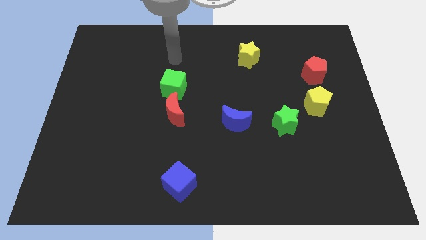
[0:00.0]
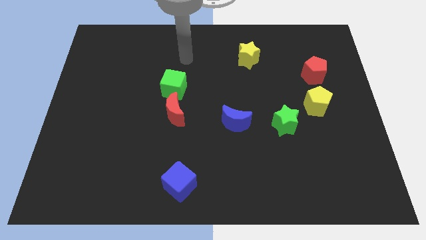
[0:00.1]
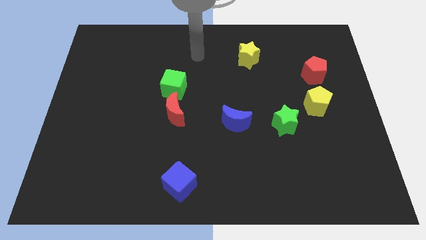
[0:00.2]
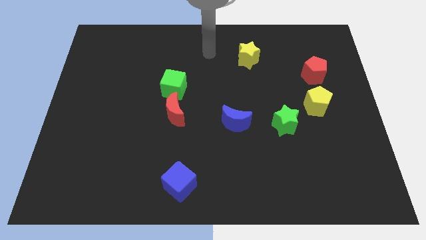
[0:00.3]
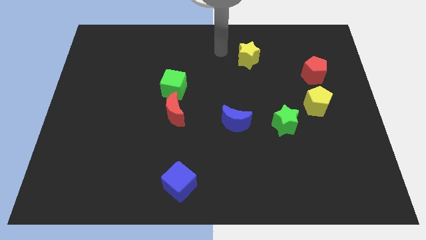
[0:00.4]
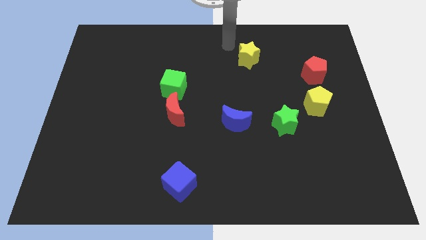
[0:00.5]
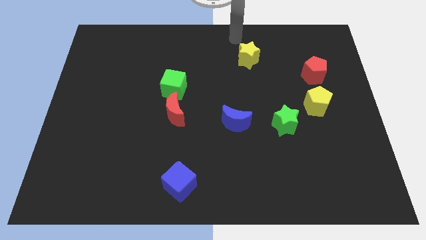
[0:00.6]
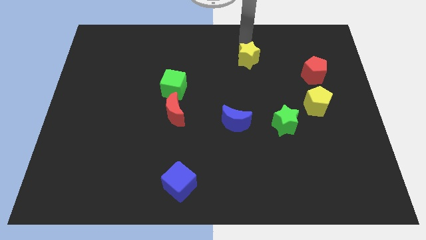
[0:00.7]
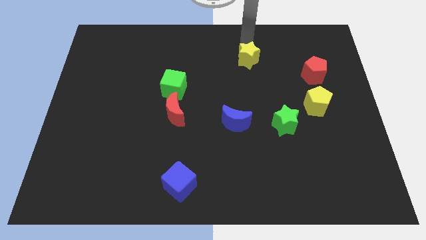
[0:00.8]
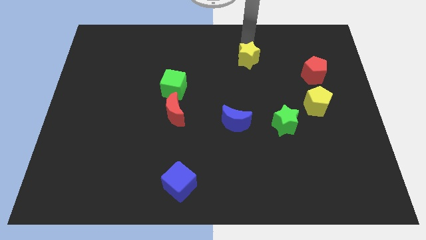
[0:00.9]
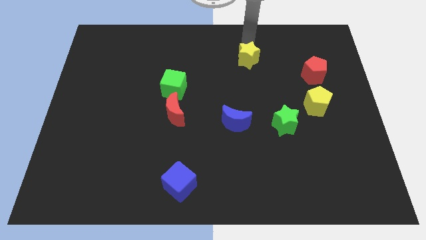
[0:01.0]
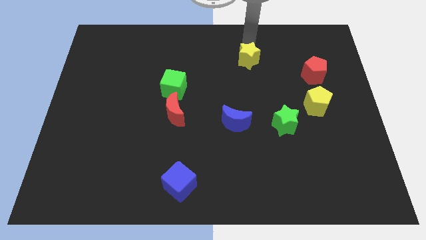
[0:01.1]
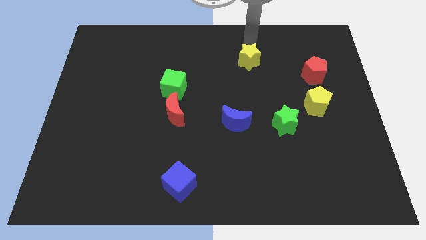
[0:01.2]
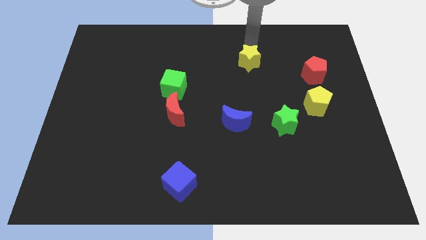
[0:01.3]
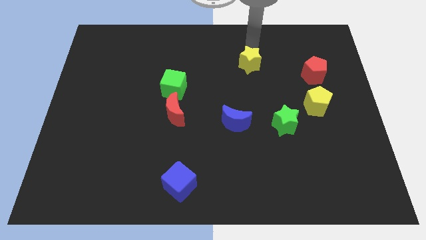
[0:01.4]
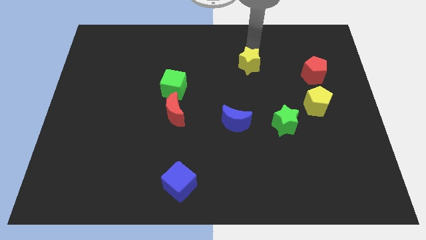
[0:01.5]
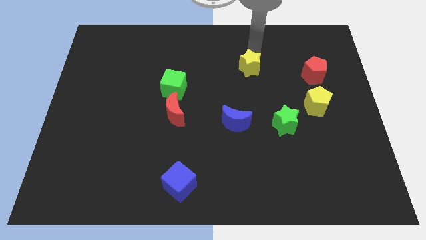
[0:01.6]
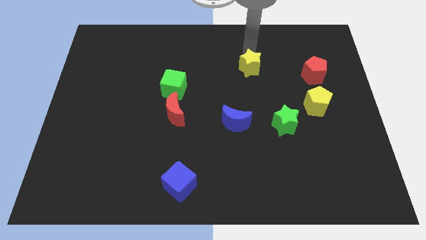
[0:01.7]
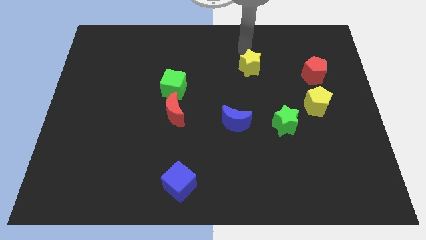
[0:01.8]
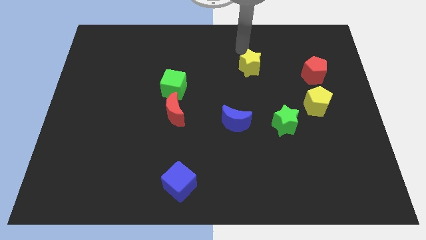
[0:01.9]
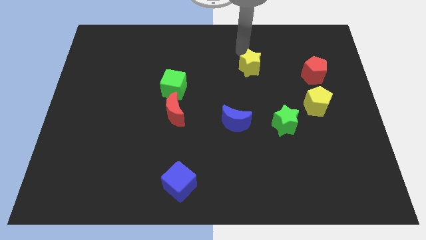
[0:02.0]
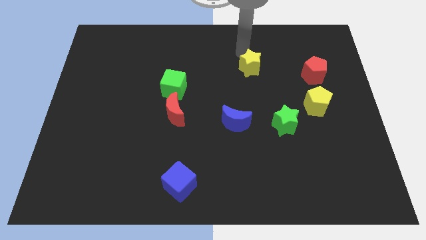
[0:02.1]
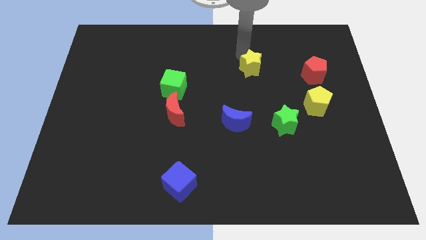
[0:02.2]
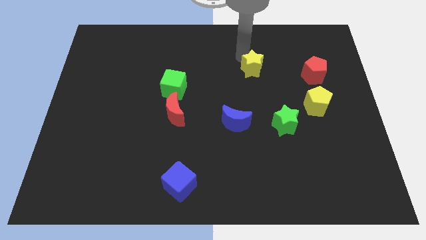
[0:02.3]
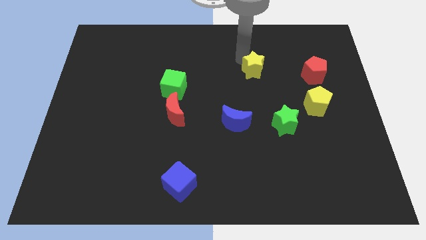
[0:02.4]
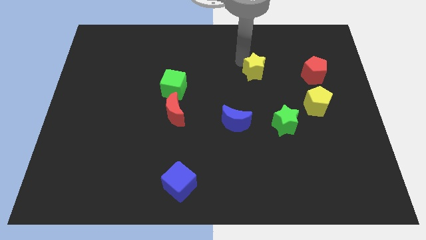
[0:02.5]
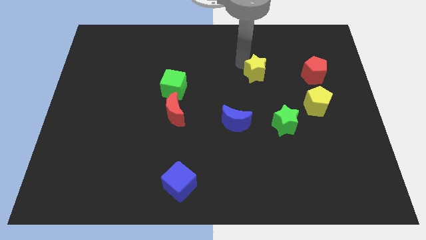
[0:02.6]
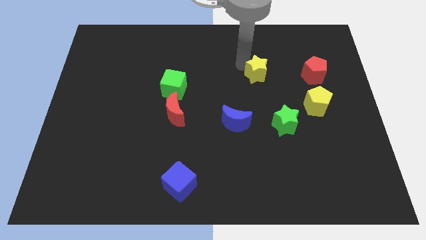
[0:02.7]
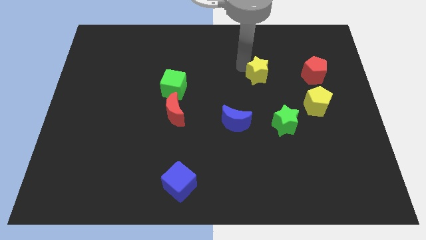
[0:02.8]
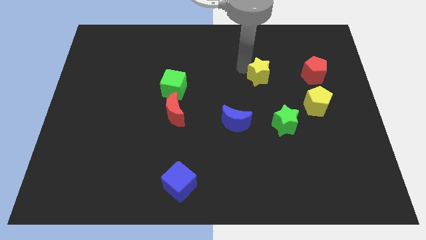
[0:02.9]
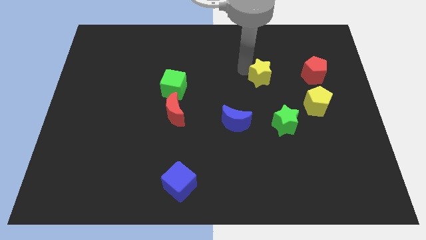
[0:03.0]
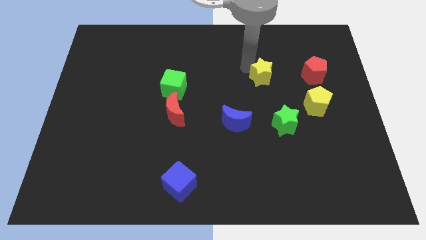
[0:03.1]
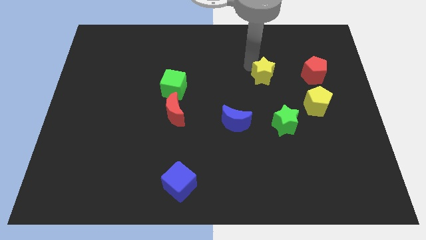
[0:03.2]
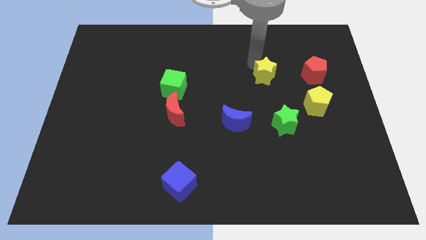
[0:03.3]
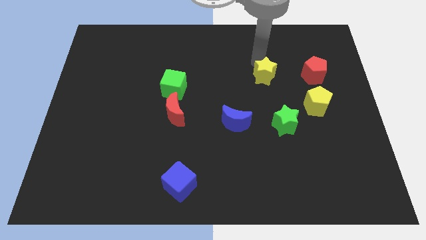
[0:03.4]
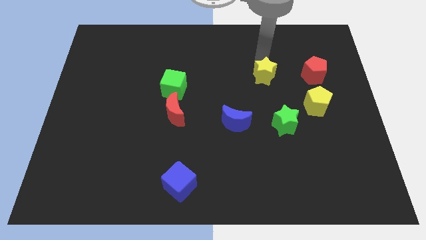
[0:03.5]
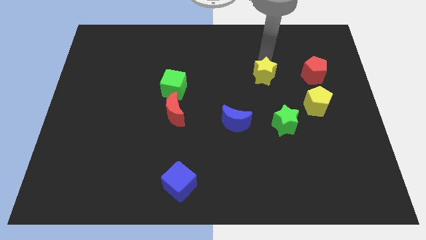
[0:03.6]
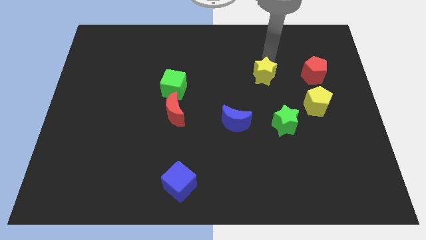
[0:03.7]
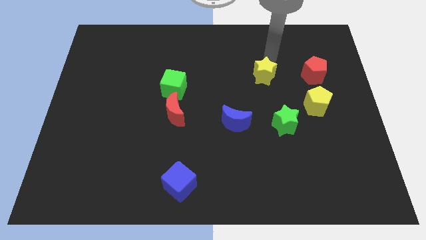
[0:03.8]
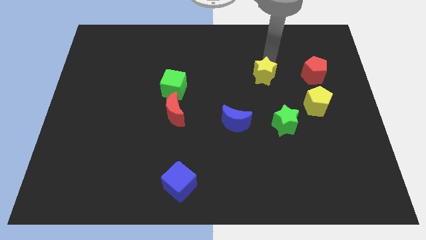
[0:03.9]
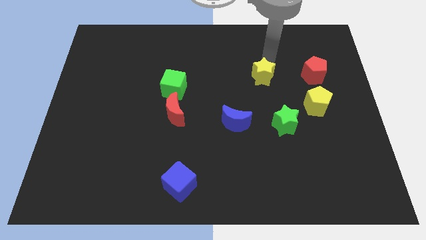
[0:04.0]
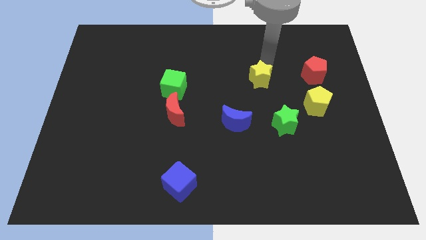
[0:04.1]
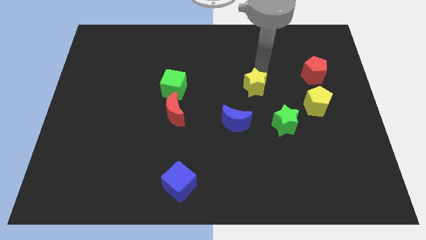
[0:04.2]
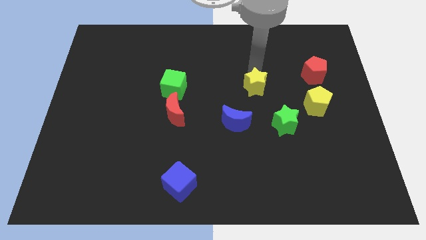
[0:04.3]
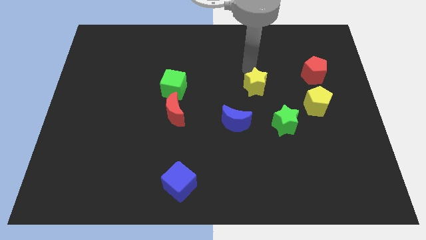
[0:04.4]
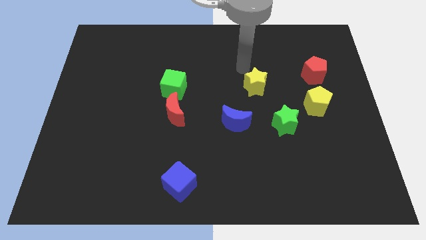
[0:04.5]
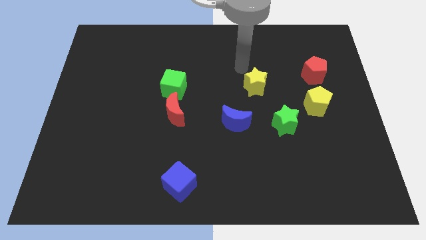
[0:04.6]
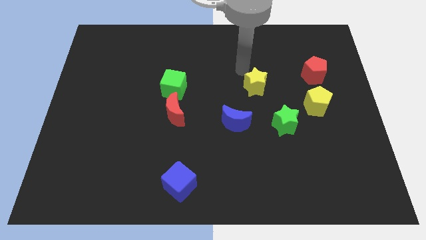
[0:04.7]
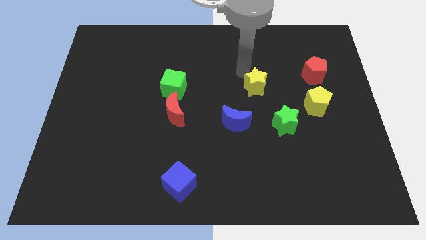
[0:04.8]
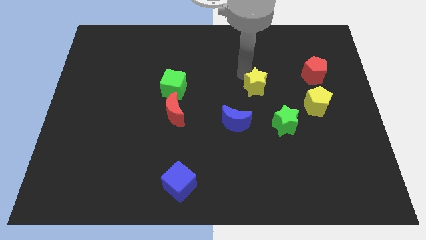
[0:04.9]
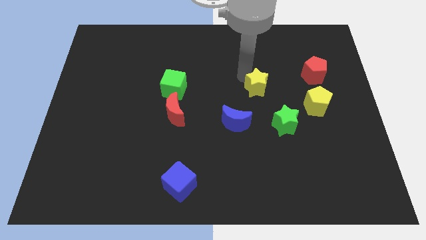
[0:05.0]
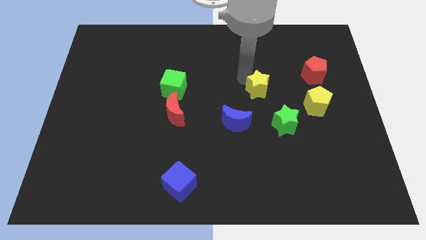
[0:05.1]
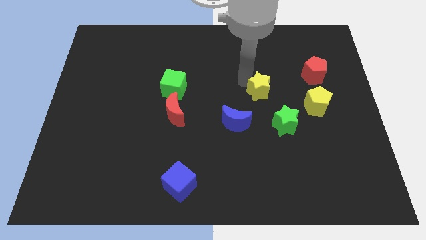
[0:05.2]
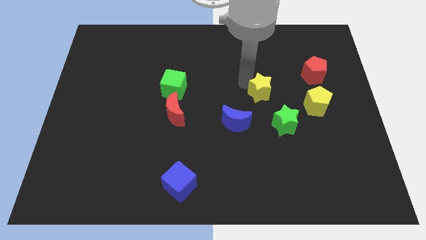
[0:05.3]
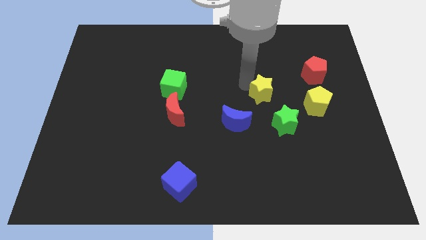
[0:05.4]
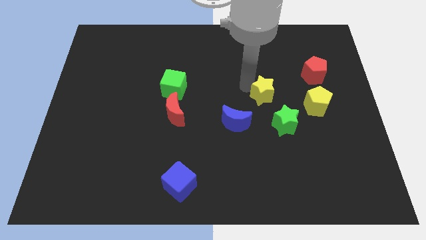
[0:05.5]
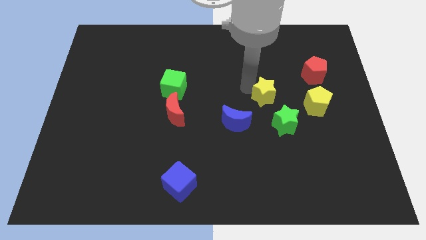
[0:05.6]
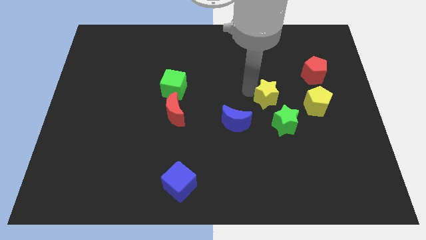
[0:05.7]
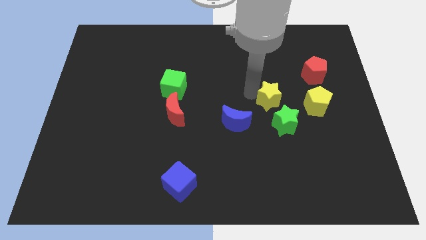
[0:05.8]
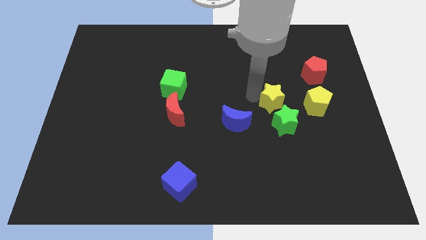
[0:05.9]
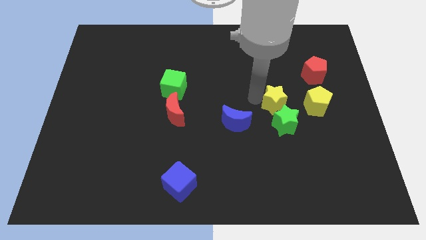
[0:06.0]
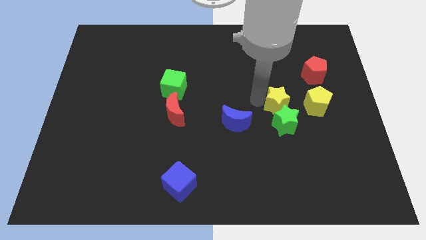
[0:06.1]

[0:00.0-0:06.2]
slide the yellow star next to the green star

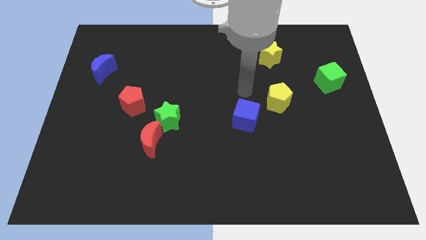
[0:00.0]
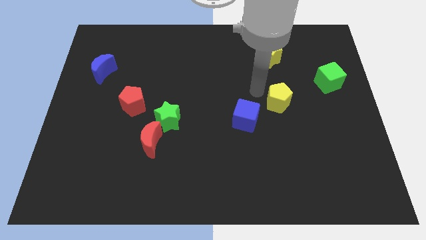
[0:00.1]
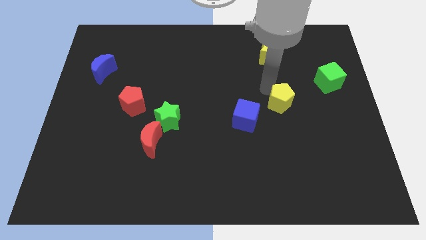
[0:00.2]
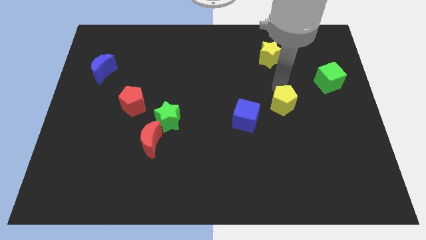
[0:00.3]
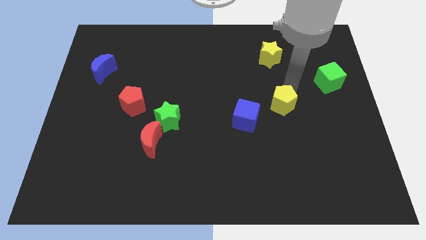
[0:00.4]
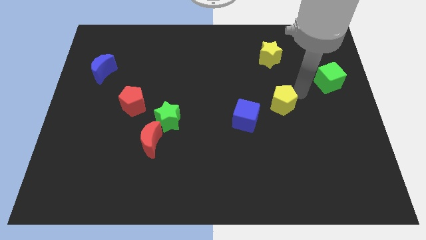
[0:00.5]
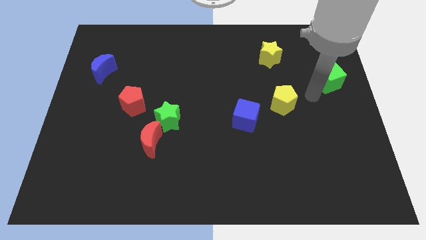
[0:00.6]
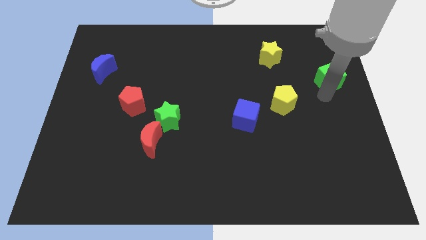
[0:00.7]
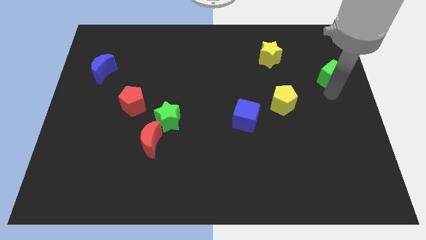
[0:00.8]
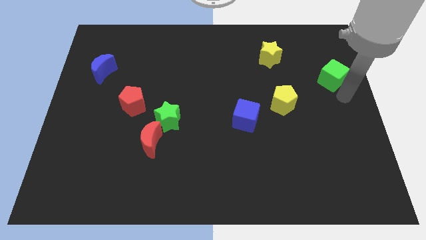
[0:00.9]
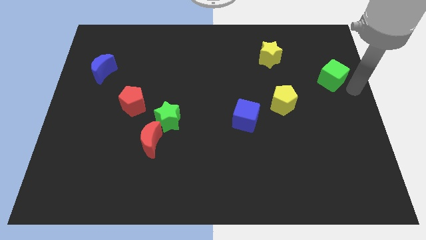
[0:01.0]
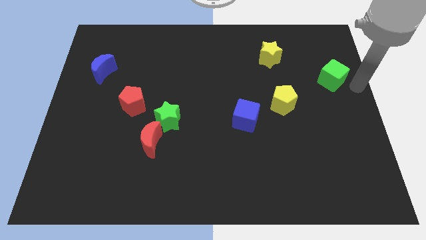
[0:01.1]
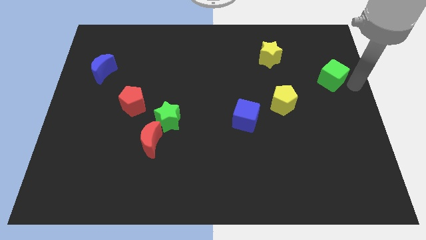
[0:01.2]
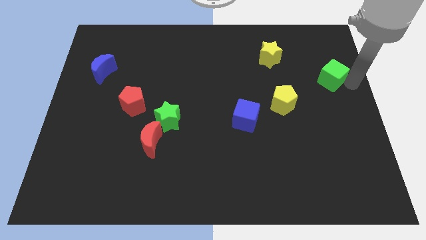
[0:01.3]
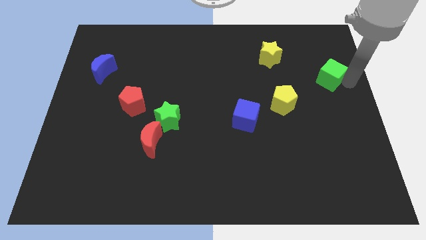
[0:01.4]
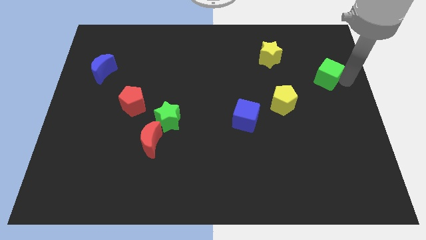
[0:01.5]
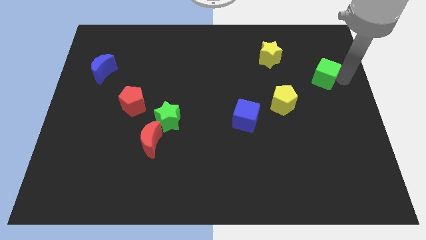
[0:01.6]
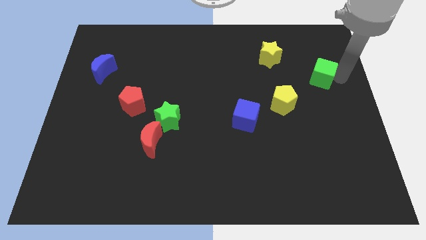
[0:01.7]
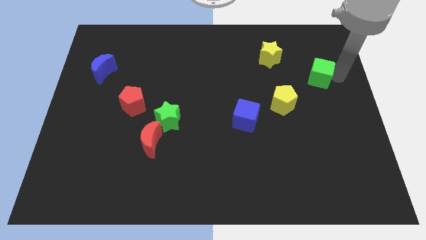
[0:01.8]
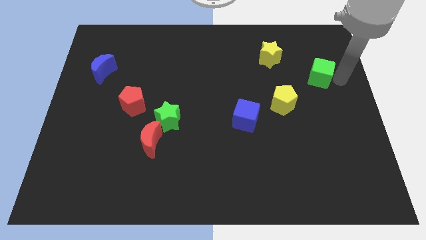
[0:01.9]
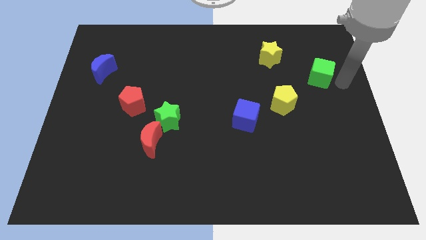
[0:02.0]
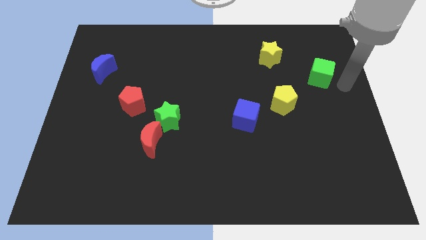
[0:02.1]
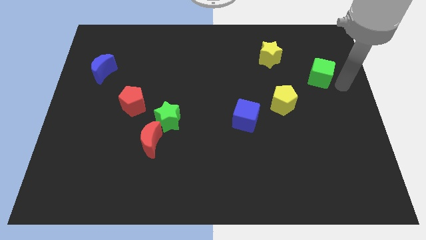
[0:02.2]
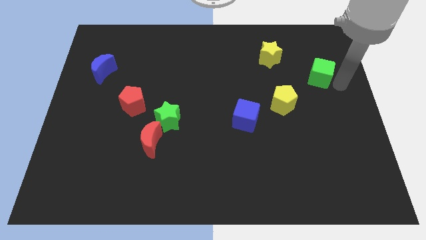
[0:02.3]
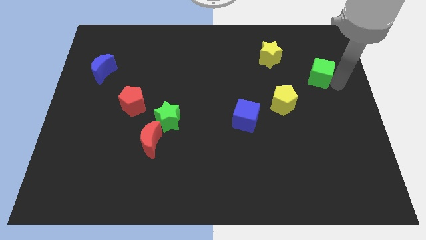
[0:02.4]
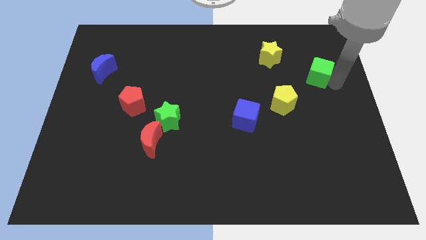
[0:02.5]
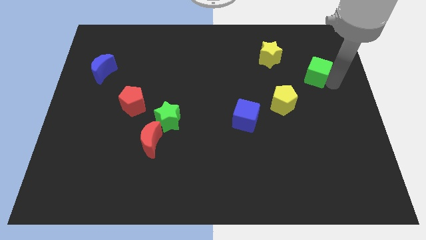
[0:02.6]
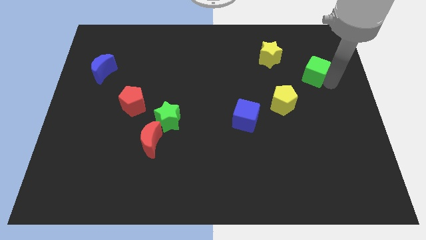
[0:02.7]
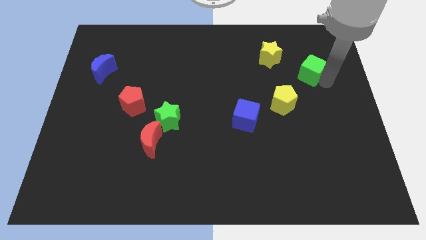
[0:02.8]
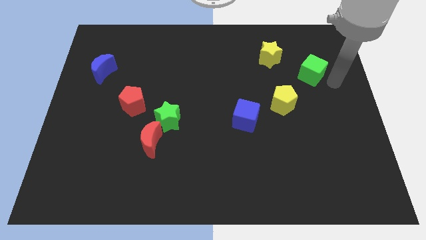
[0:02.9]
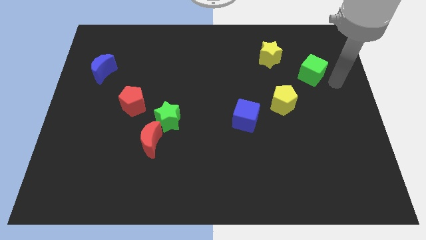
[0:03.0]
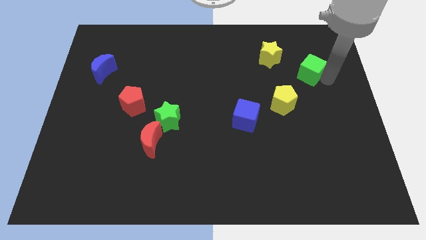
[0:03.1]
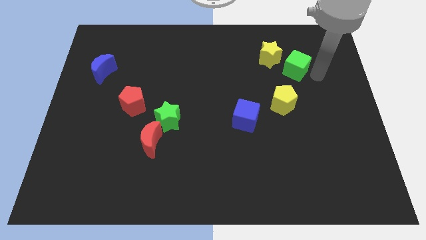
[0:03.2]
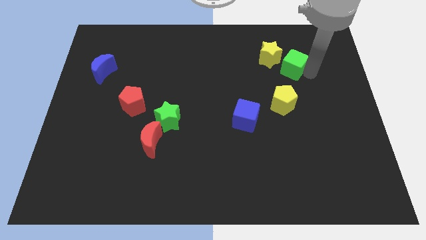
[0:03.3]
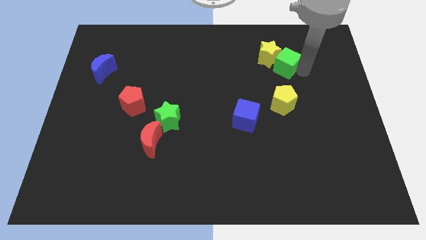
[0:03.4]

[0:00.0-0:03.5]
put the green cube next to the yellow star
